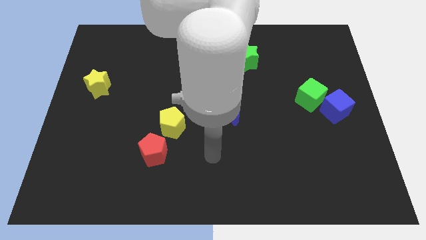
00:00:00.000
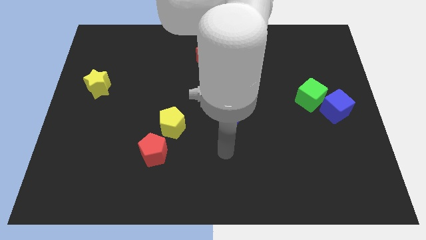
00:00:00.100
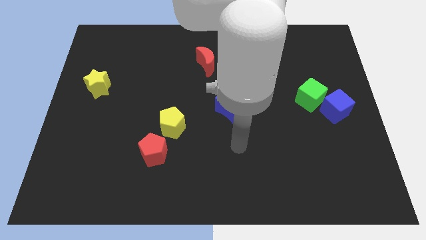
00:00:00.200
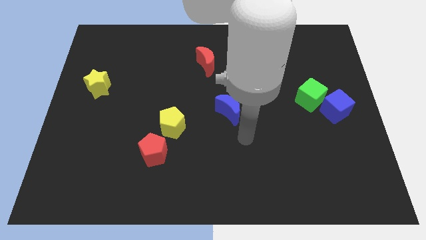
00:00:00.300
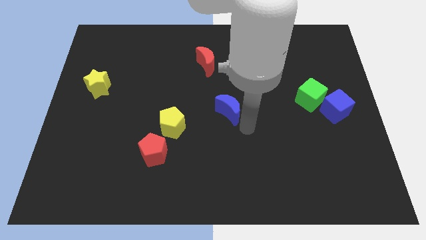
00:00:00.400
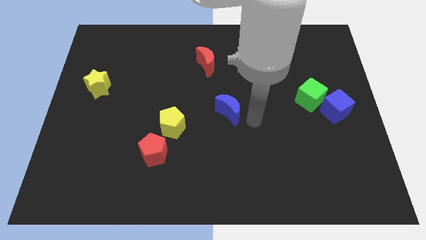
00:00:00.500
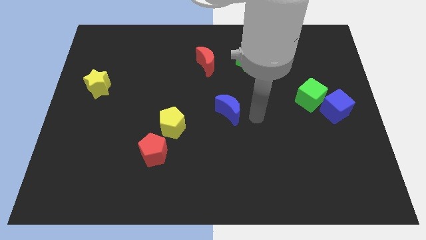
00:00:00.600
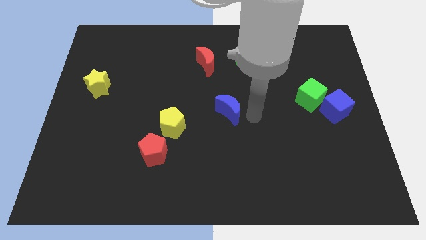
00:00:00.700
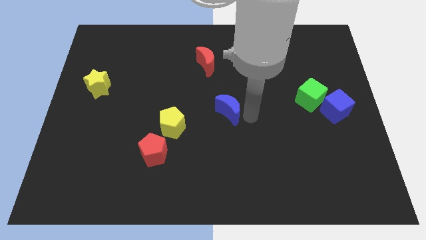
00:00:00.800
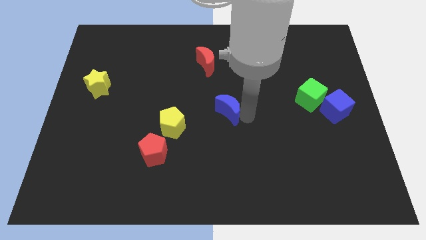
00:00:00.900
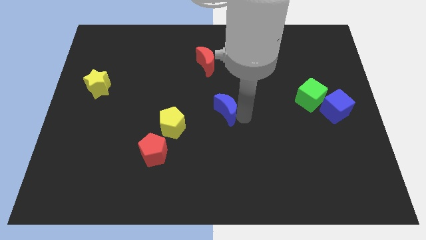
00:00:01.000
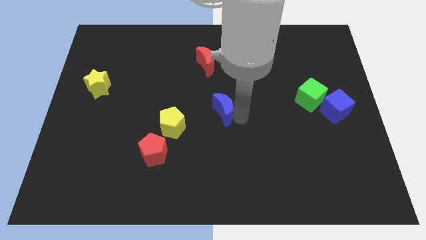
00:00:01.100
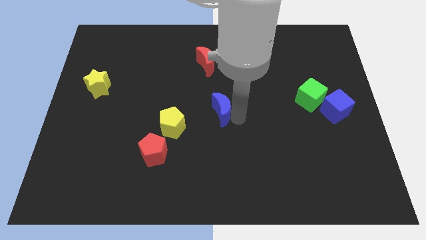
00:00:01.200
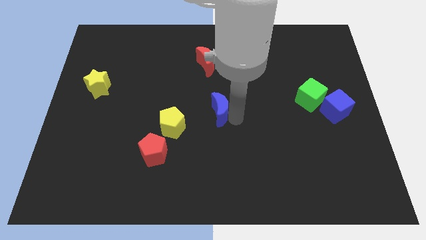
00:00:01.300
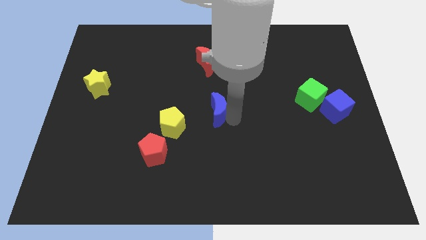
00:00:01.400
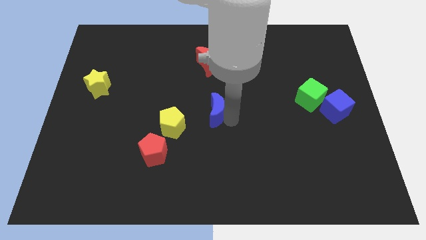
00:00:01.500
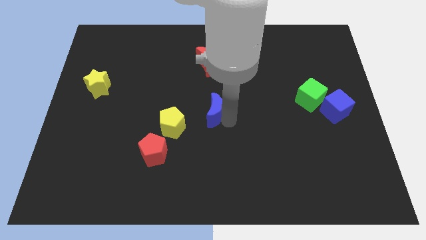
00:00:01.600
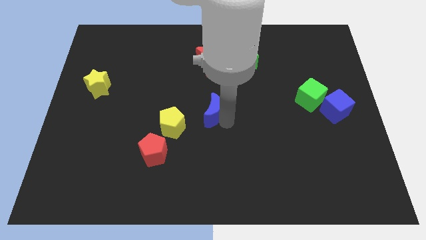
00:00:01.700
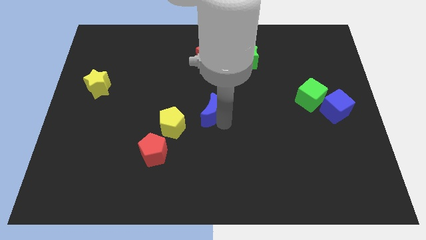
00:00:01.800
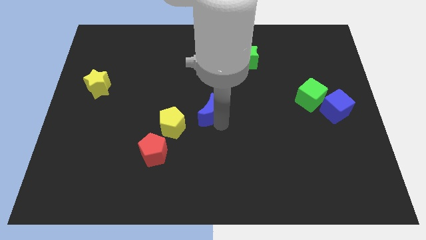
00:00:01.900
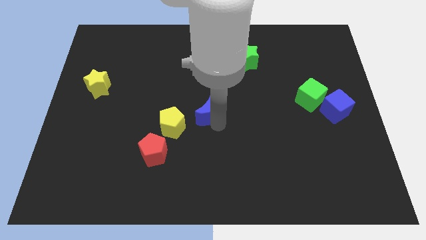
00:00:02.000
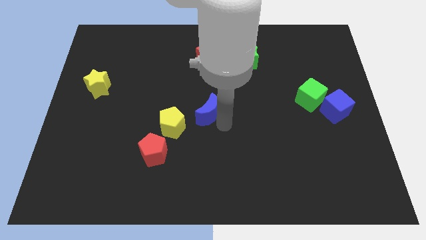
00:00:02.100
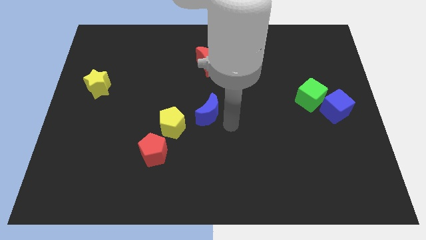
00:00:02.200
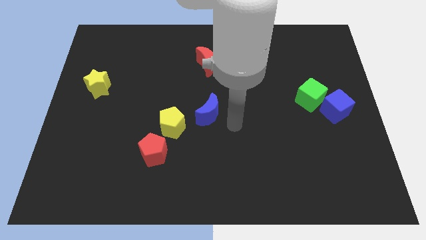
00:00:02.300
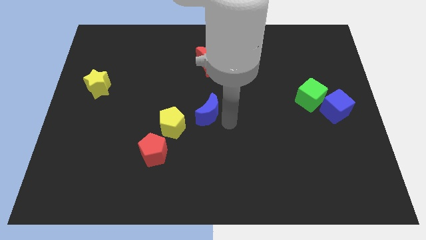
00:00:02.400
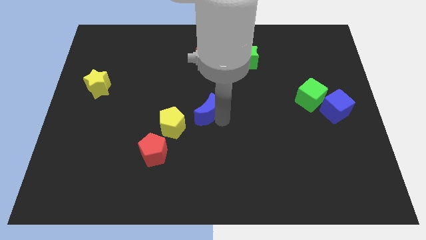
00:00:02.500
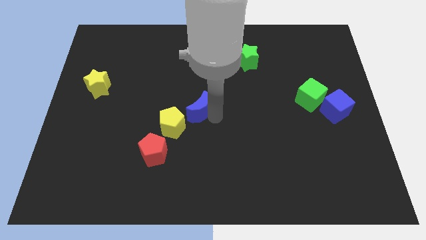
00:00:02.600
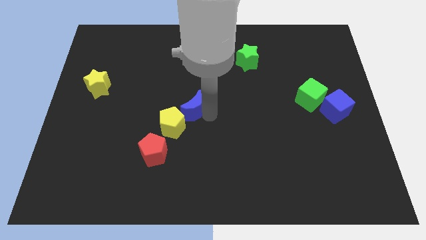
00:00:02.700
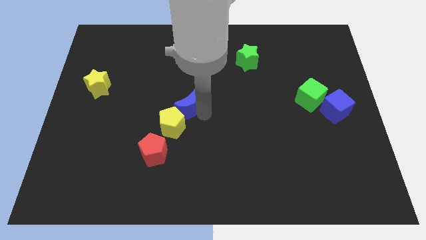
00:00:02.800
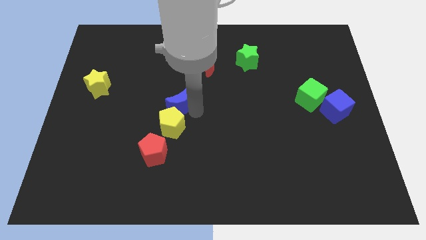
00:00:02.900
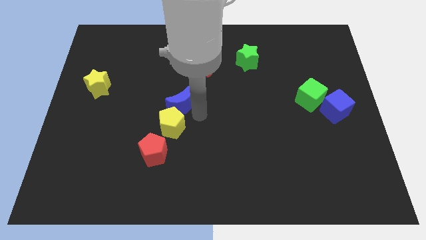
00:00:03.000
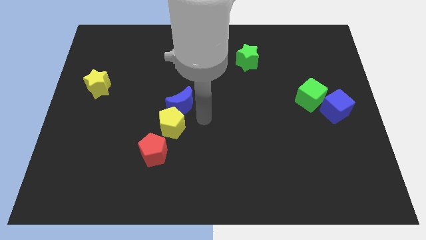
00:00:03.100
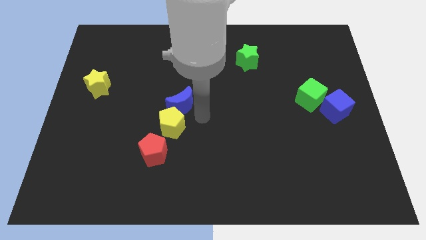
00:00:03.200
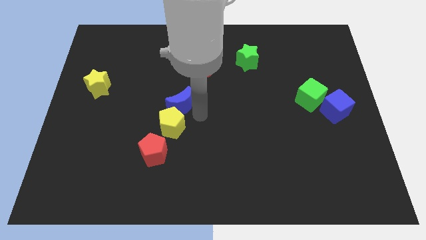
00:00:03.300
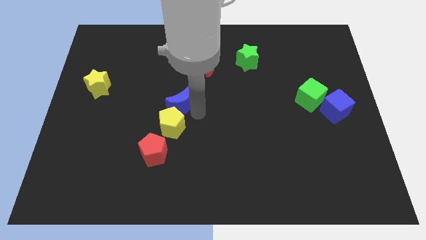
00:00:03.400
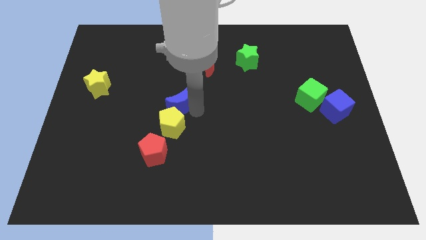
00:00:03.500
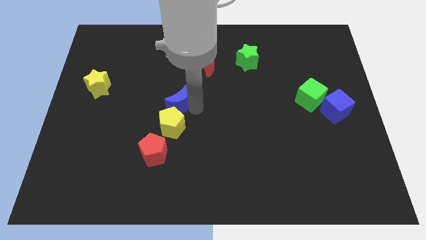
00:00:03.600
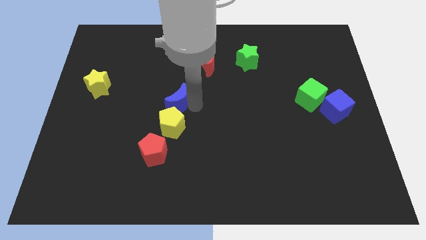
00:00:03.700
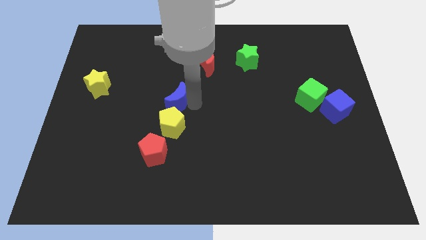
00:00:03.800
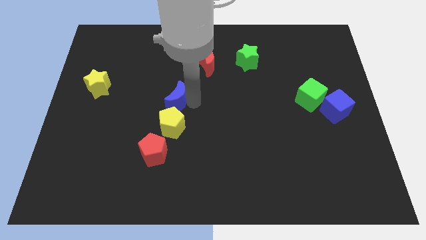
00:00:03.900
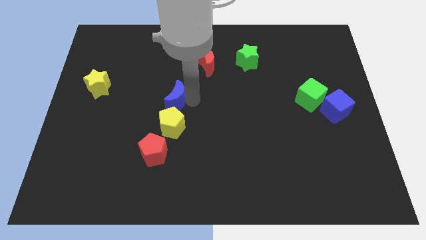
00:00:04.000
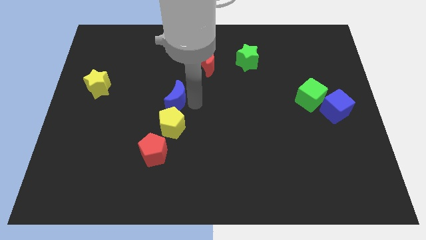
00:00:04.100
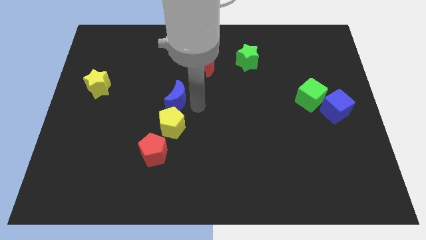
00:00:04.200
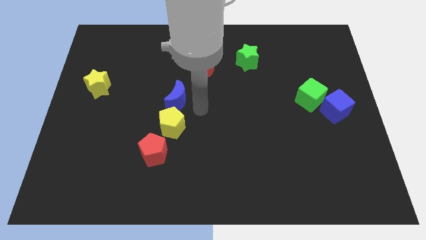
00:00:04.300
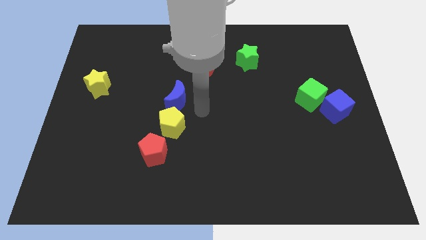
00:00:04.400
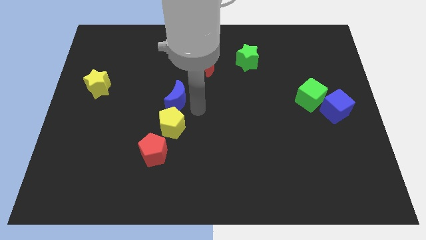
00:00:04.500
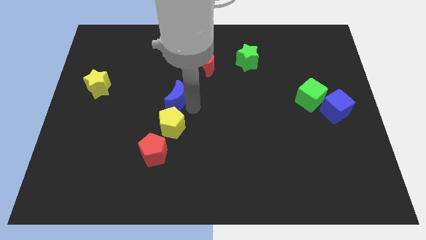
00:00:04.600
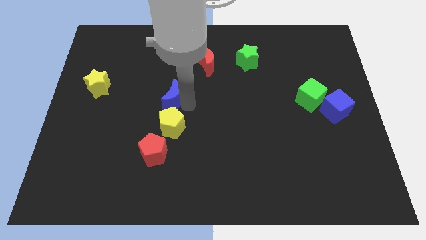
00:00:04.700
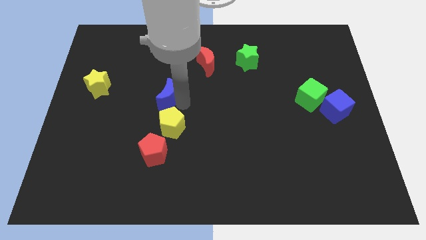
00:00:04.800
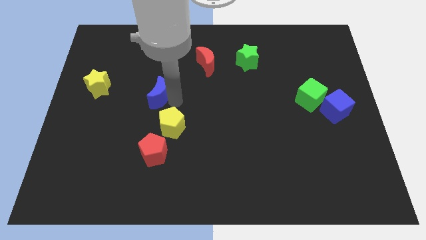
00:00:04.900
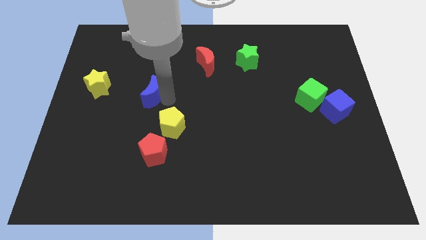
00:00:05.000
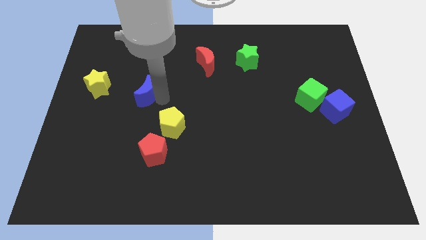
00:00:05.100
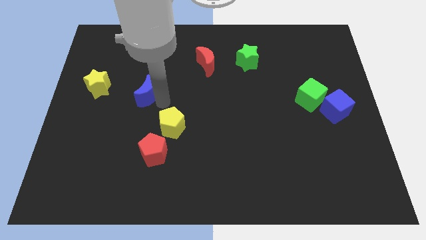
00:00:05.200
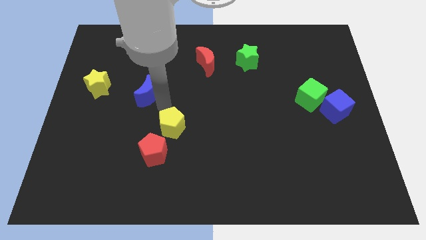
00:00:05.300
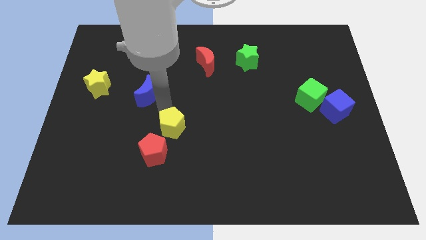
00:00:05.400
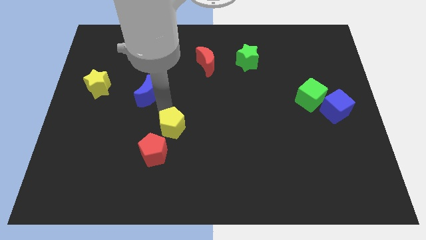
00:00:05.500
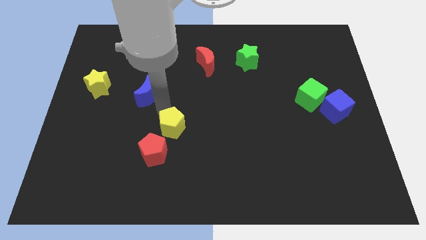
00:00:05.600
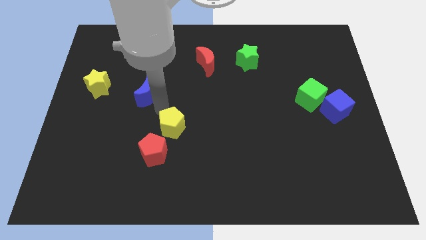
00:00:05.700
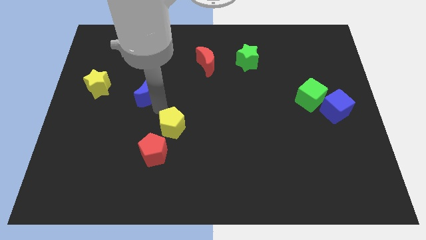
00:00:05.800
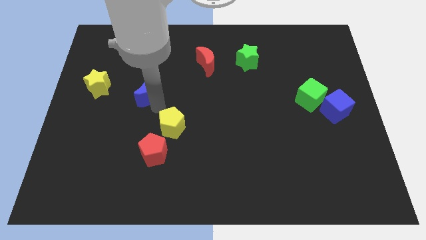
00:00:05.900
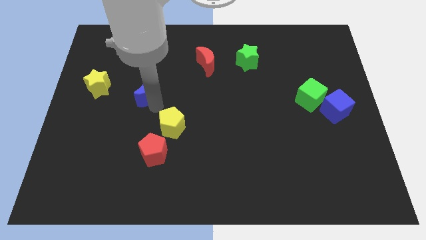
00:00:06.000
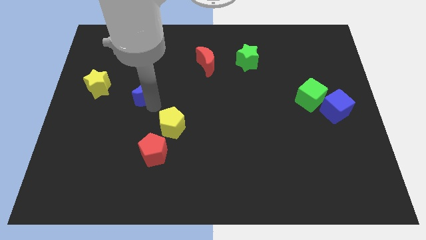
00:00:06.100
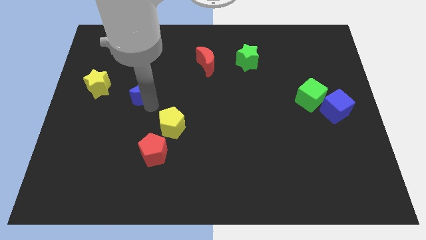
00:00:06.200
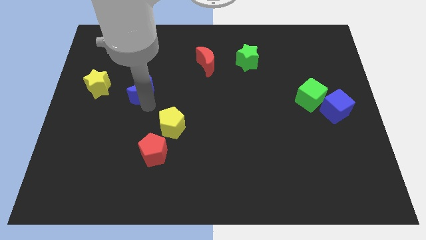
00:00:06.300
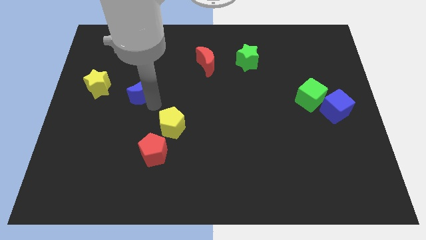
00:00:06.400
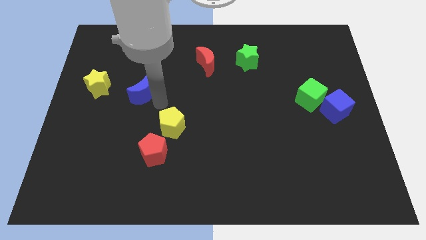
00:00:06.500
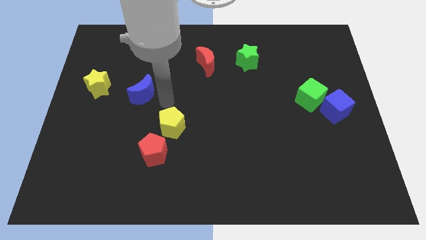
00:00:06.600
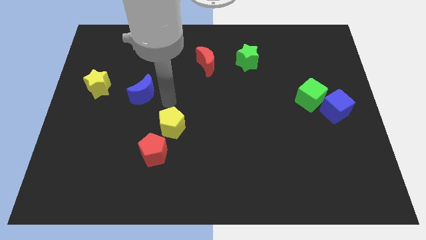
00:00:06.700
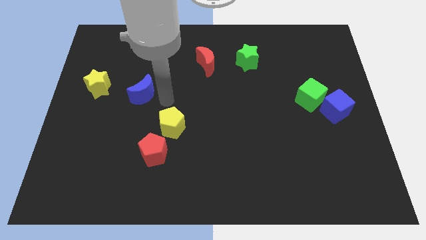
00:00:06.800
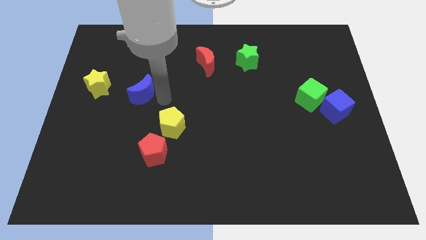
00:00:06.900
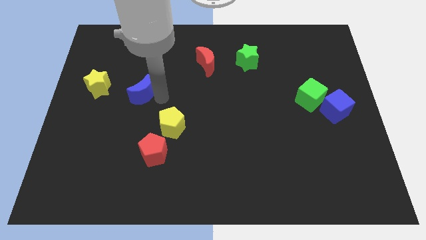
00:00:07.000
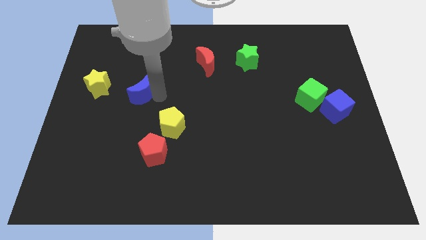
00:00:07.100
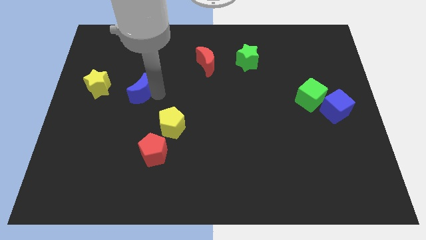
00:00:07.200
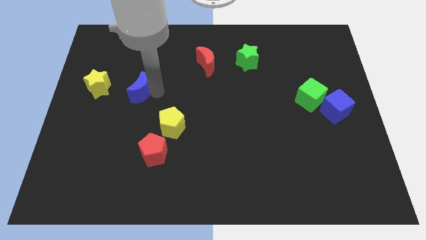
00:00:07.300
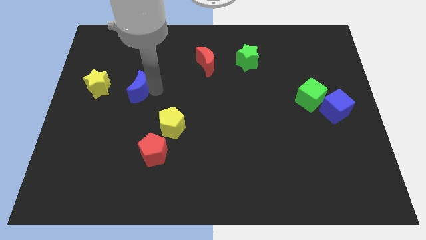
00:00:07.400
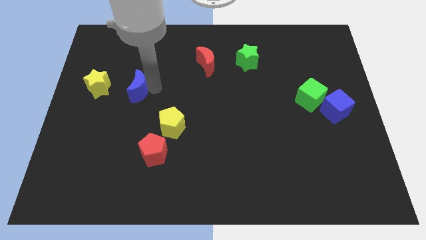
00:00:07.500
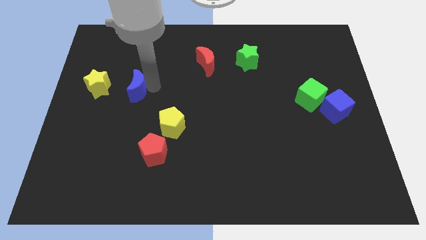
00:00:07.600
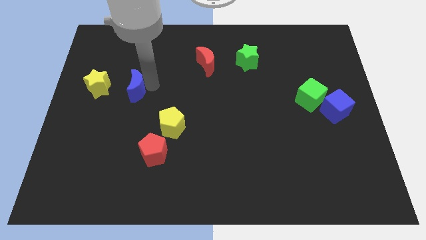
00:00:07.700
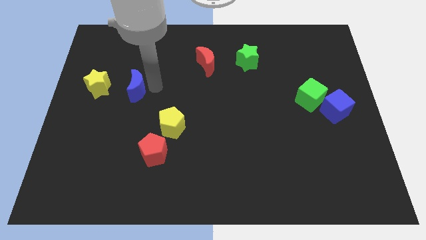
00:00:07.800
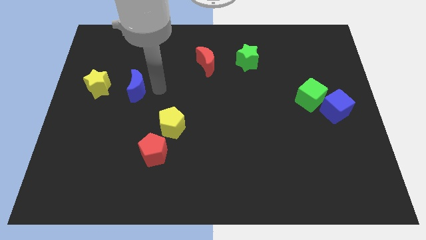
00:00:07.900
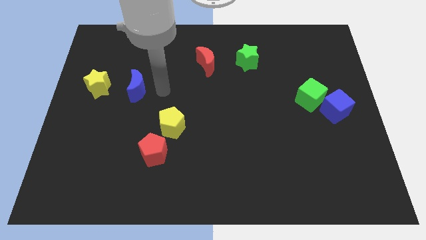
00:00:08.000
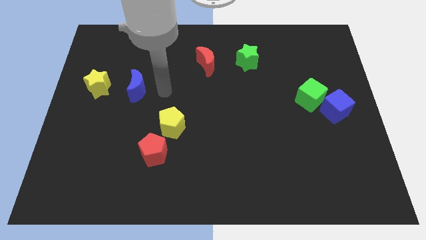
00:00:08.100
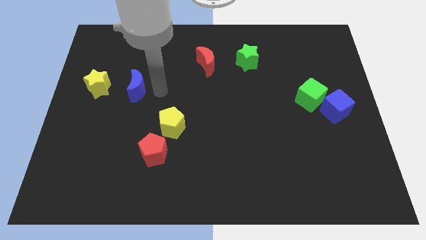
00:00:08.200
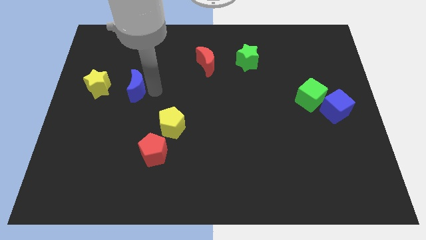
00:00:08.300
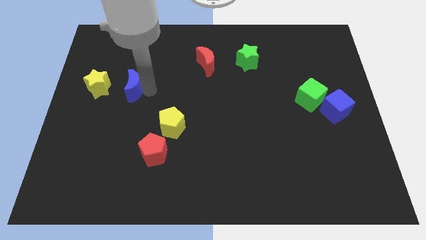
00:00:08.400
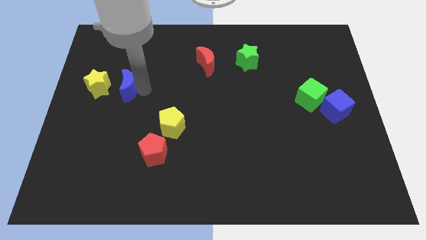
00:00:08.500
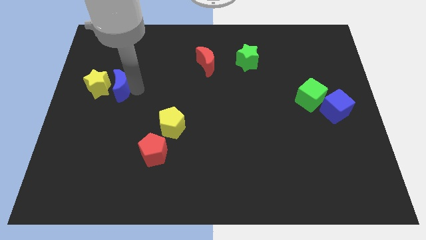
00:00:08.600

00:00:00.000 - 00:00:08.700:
move the blue moon to the yellow star
